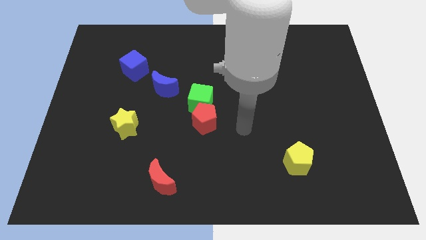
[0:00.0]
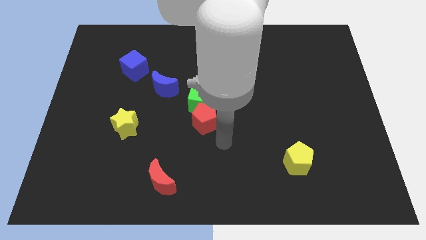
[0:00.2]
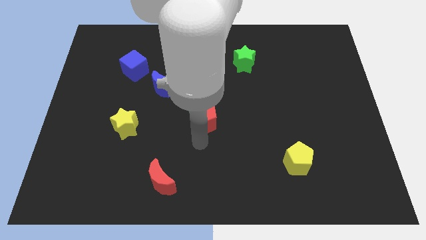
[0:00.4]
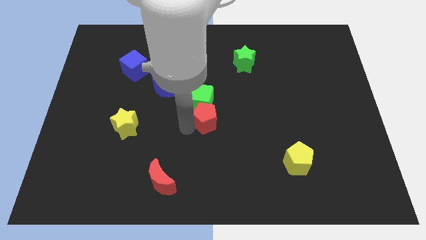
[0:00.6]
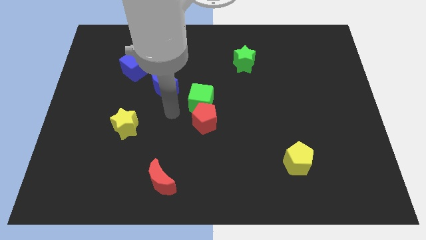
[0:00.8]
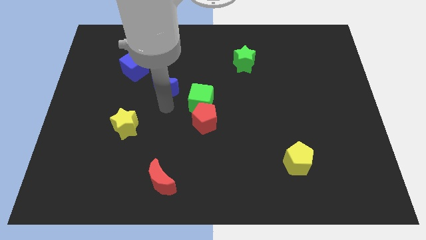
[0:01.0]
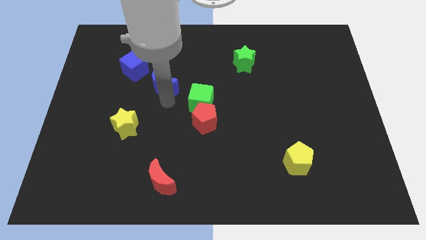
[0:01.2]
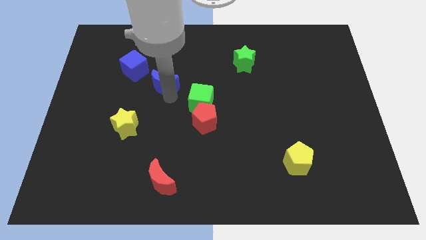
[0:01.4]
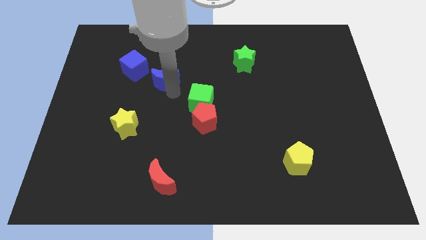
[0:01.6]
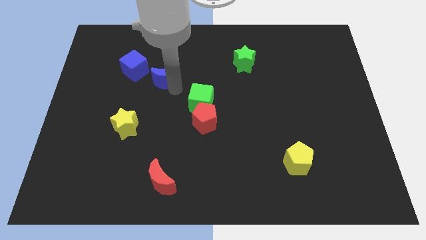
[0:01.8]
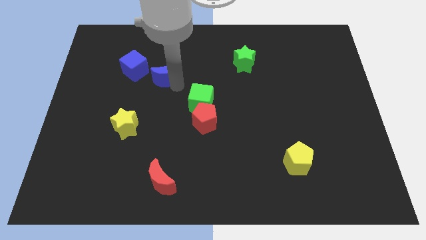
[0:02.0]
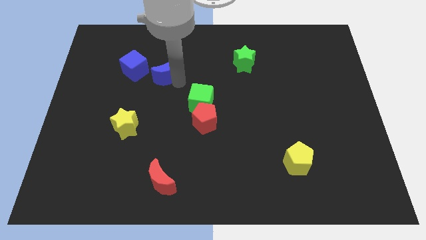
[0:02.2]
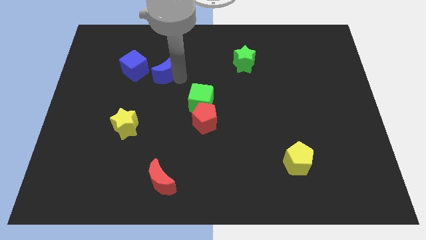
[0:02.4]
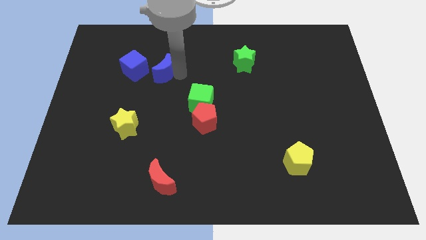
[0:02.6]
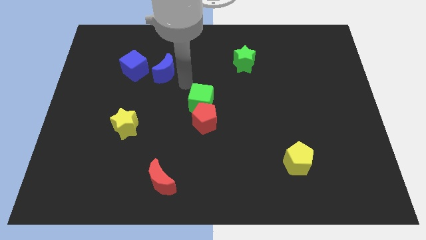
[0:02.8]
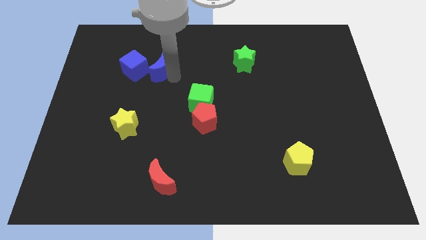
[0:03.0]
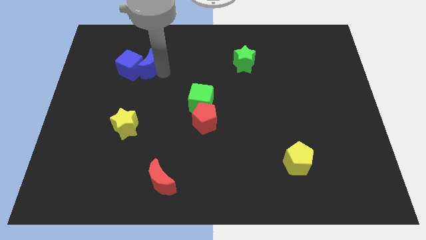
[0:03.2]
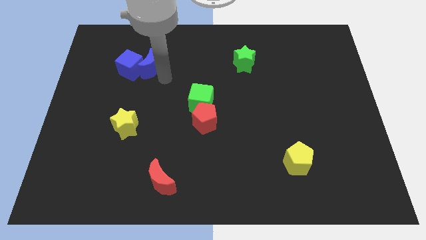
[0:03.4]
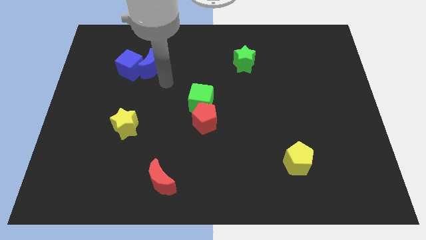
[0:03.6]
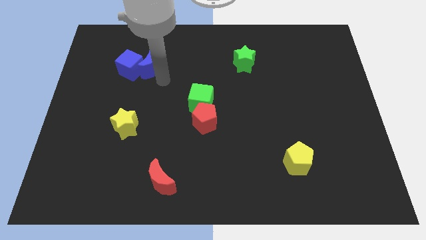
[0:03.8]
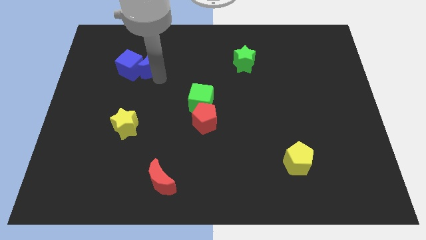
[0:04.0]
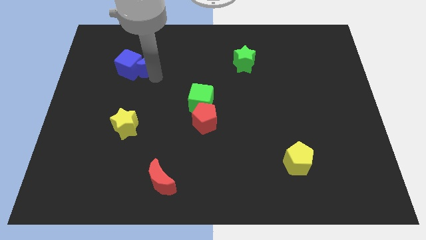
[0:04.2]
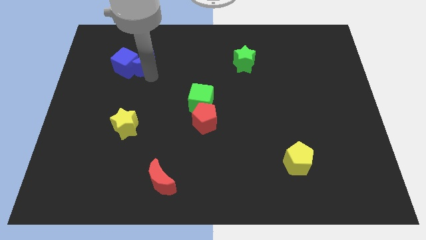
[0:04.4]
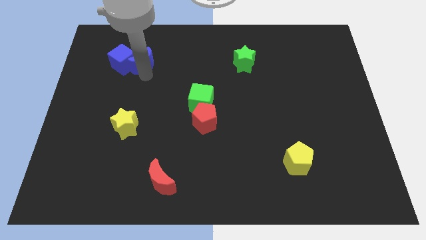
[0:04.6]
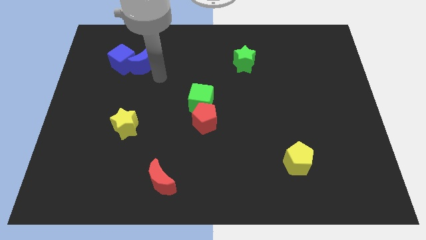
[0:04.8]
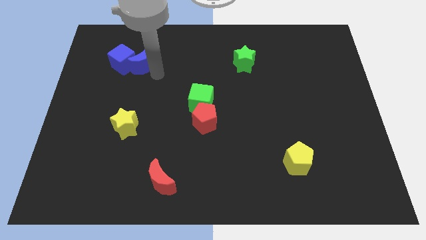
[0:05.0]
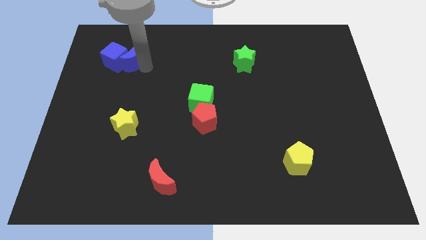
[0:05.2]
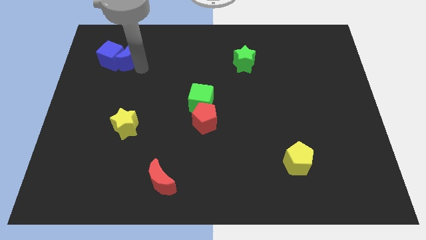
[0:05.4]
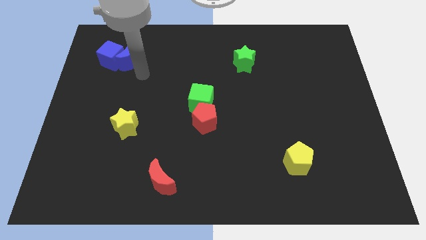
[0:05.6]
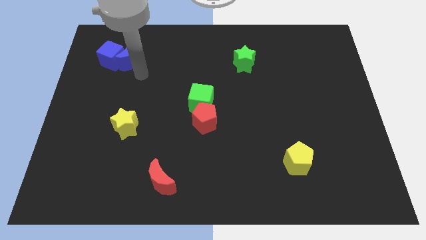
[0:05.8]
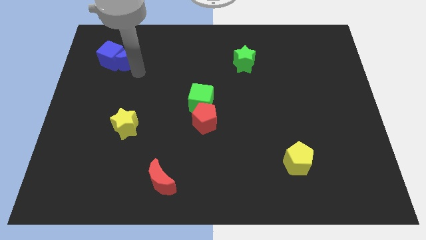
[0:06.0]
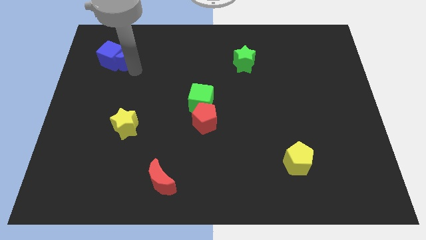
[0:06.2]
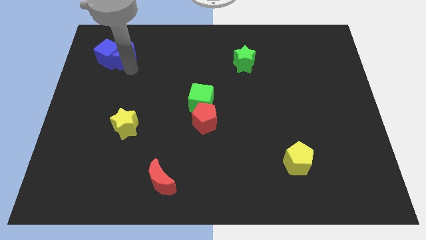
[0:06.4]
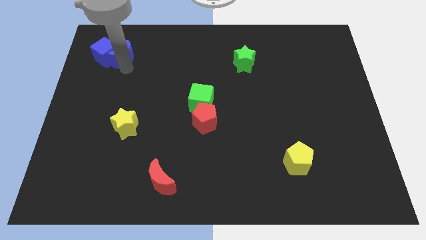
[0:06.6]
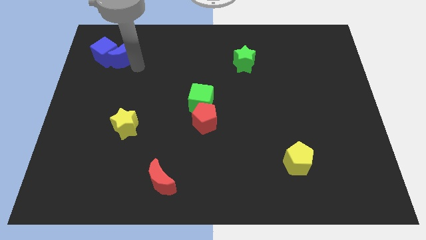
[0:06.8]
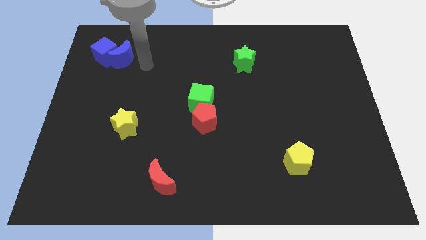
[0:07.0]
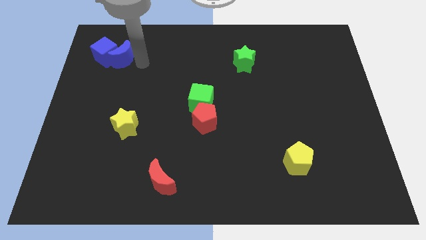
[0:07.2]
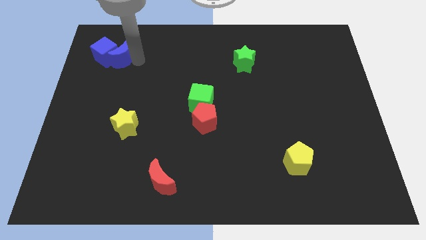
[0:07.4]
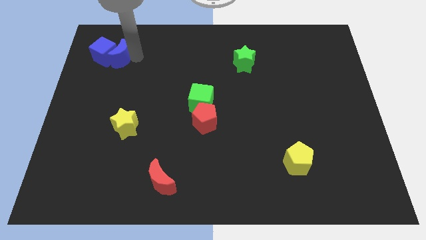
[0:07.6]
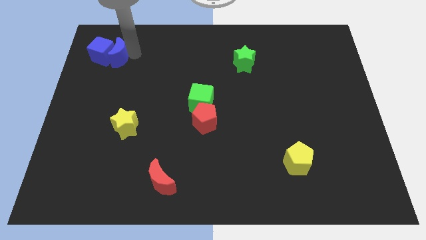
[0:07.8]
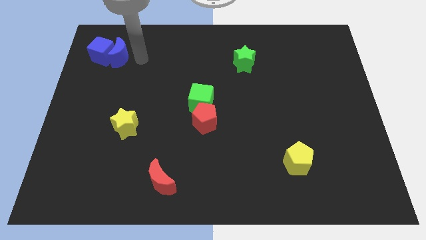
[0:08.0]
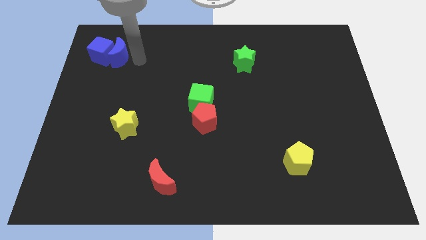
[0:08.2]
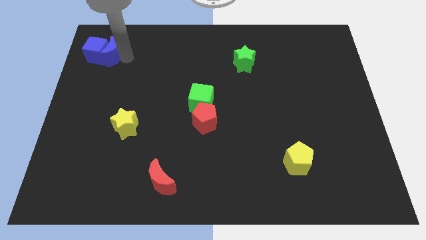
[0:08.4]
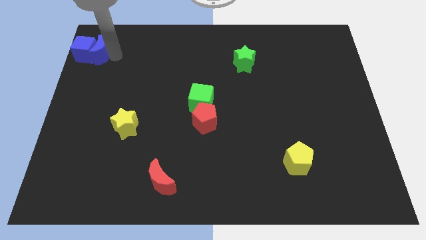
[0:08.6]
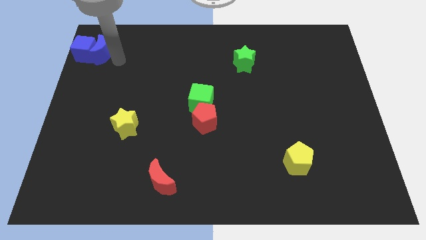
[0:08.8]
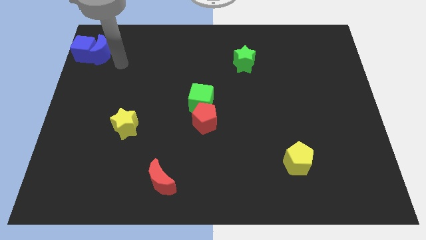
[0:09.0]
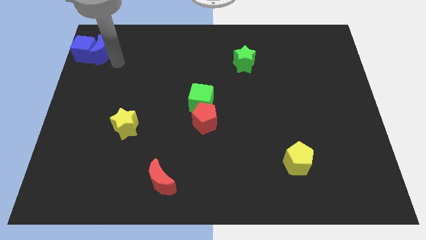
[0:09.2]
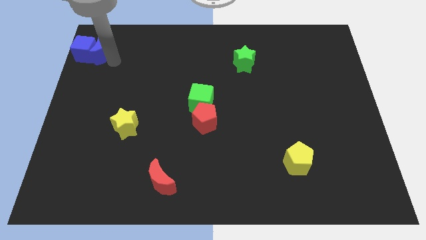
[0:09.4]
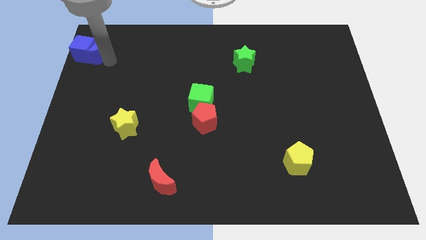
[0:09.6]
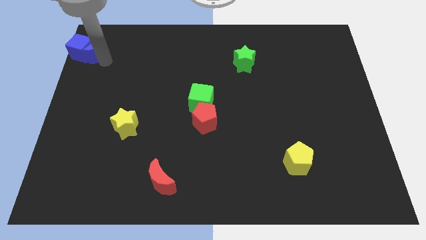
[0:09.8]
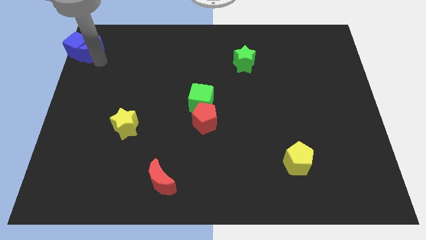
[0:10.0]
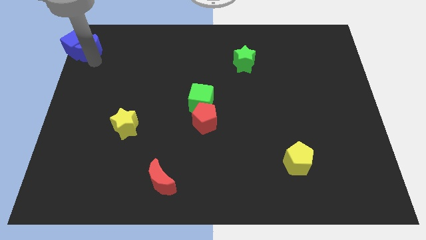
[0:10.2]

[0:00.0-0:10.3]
move the blue moon to the top left

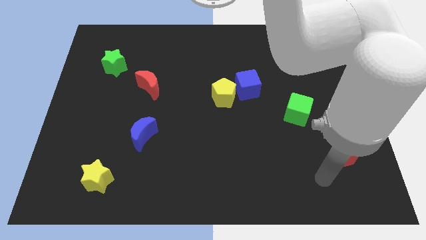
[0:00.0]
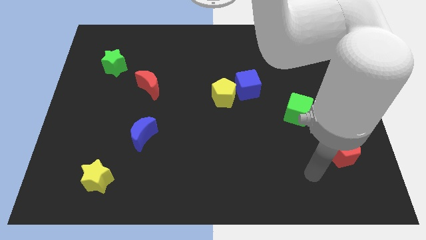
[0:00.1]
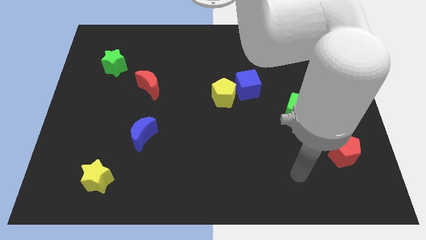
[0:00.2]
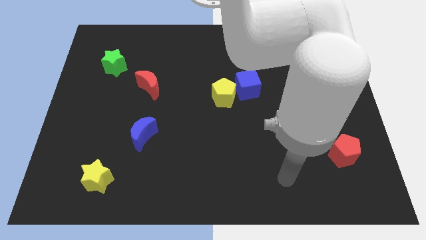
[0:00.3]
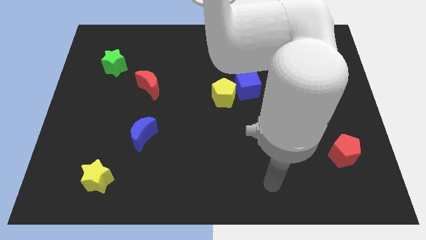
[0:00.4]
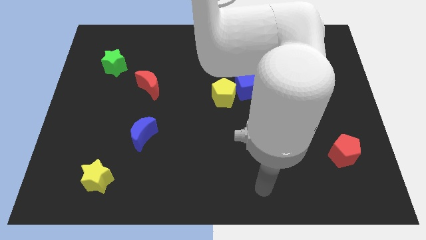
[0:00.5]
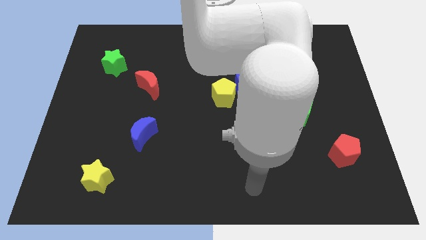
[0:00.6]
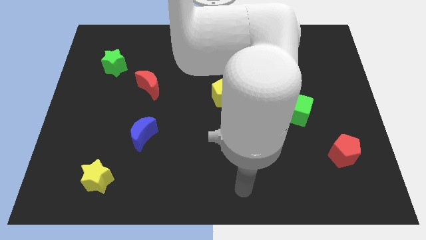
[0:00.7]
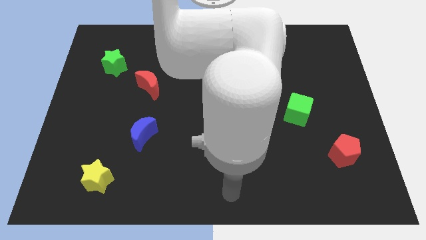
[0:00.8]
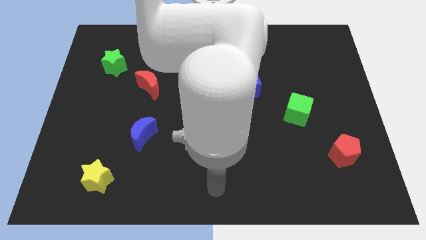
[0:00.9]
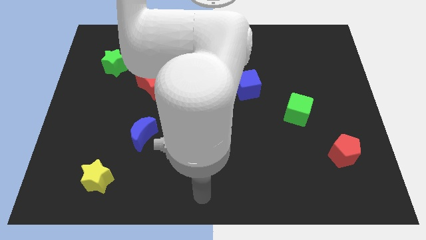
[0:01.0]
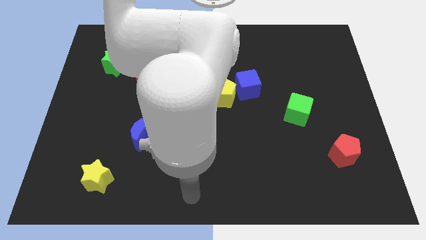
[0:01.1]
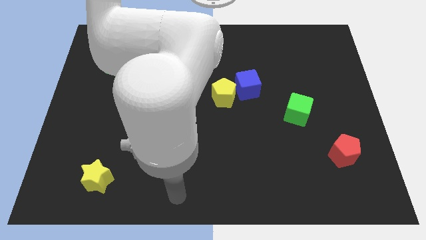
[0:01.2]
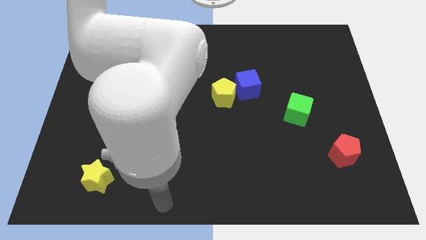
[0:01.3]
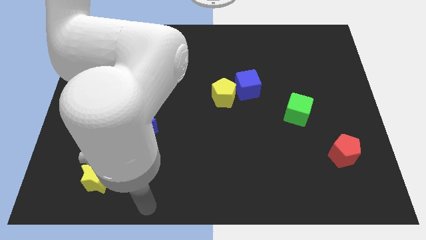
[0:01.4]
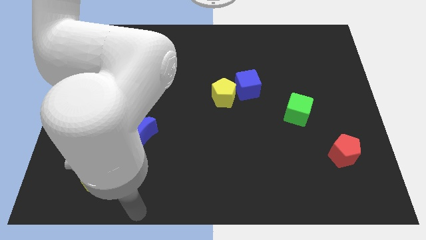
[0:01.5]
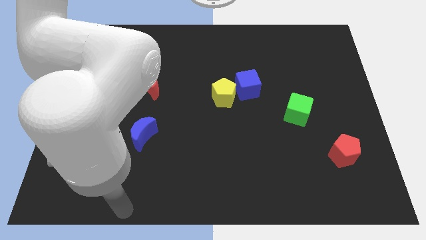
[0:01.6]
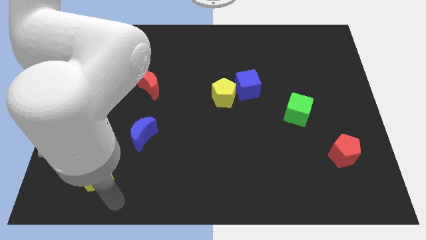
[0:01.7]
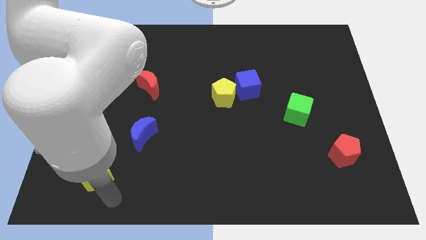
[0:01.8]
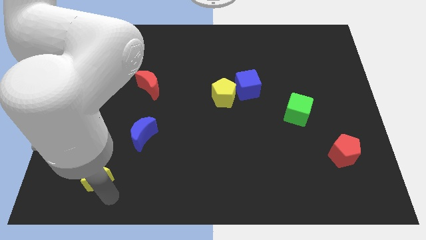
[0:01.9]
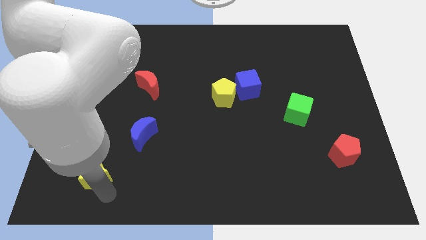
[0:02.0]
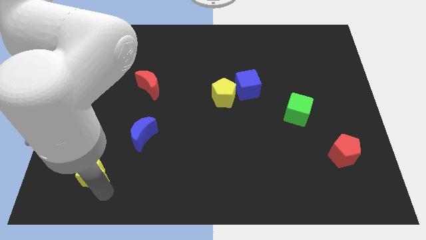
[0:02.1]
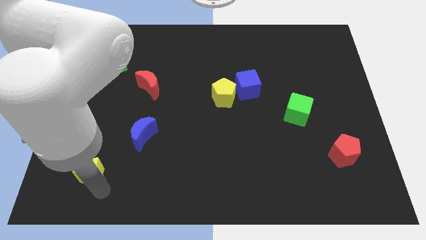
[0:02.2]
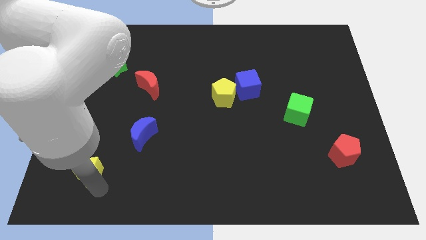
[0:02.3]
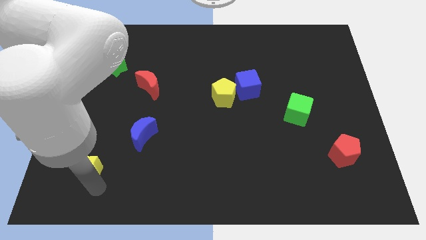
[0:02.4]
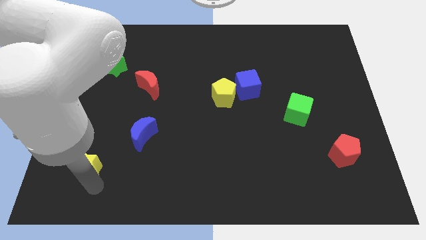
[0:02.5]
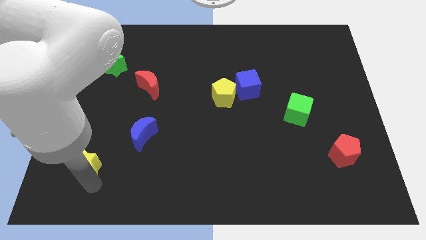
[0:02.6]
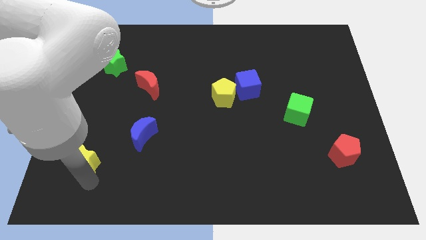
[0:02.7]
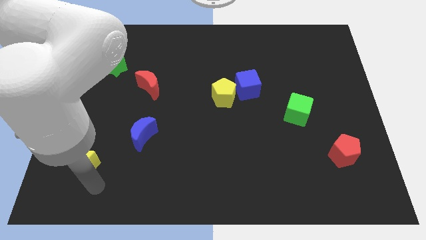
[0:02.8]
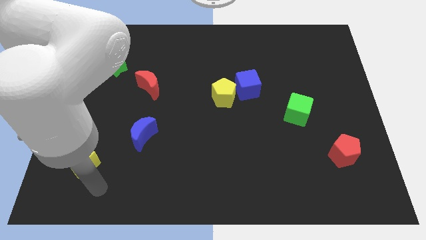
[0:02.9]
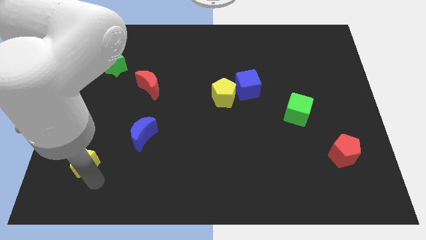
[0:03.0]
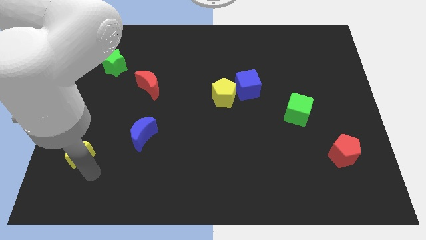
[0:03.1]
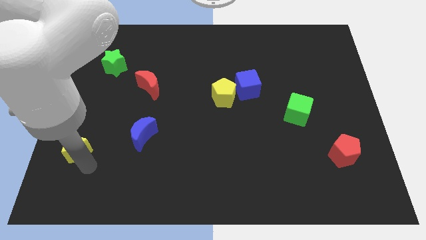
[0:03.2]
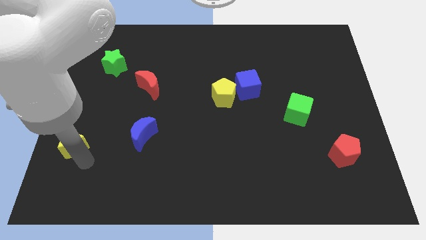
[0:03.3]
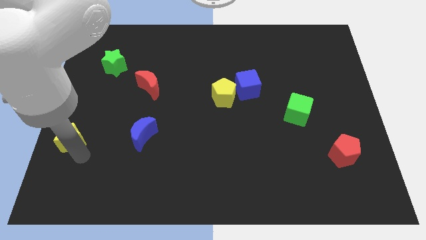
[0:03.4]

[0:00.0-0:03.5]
slide the yellow star to the center left
